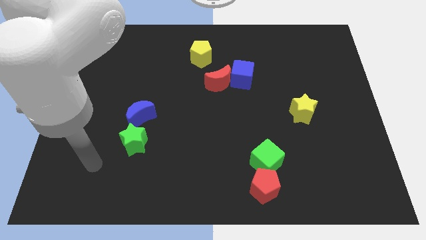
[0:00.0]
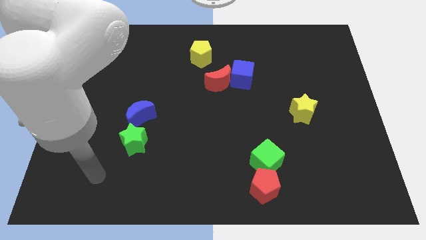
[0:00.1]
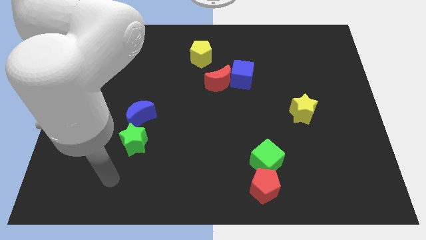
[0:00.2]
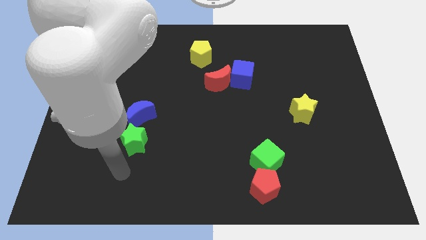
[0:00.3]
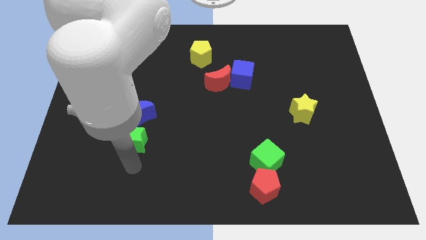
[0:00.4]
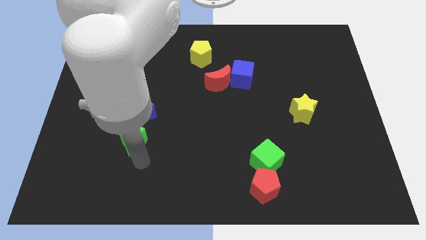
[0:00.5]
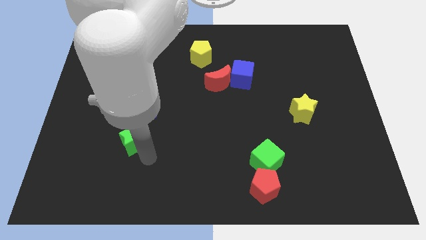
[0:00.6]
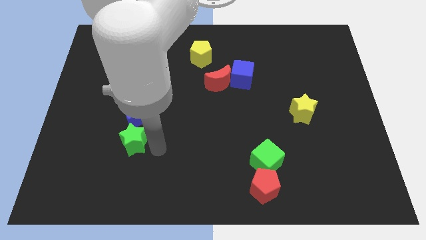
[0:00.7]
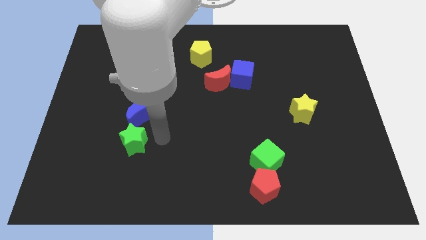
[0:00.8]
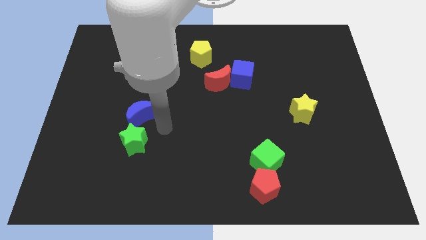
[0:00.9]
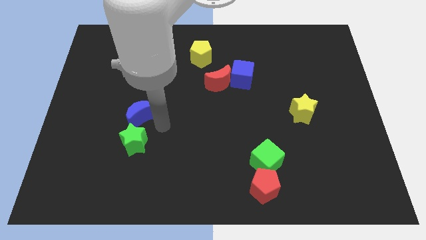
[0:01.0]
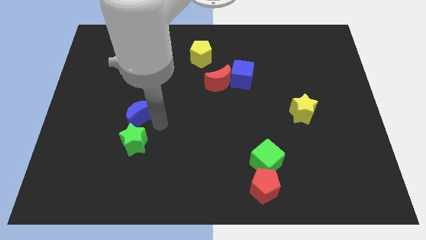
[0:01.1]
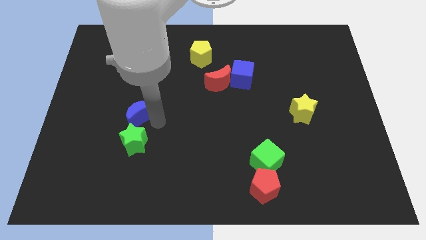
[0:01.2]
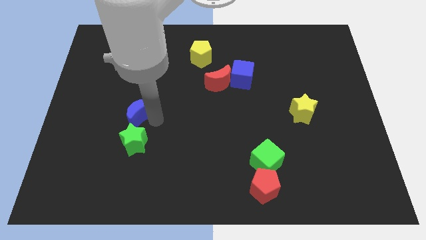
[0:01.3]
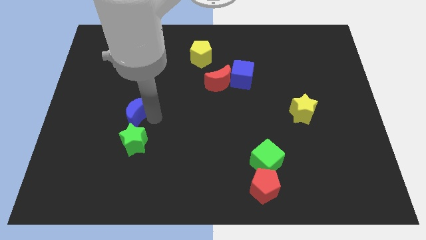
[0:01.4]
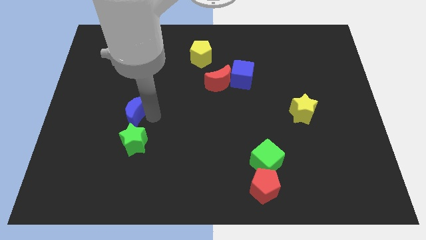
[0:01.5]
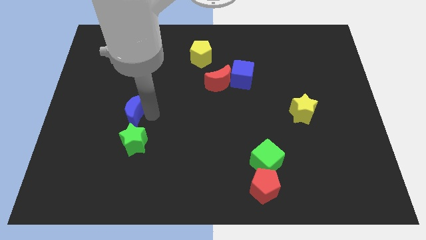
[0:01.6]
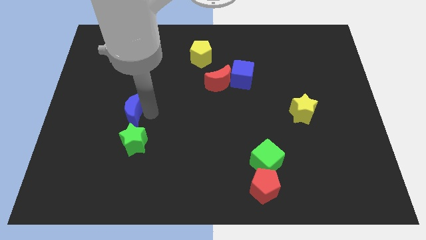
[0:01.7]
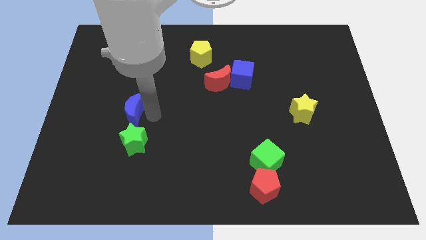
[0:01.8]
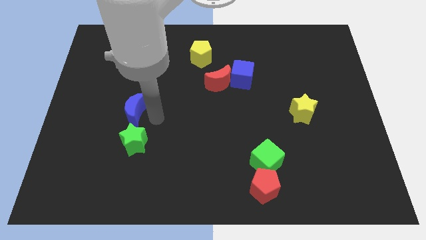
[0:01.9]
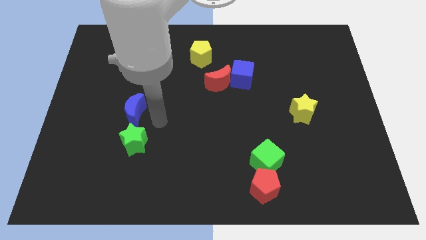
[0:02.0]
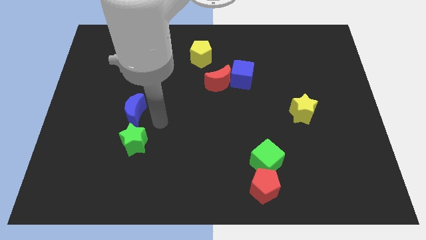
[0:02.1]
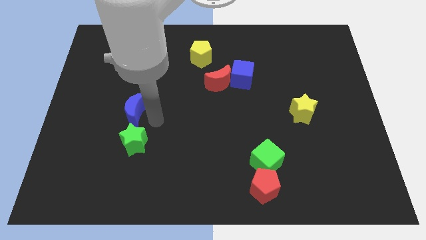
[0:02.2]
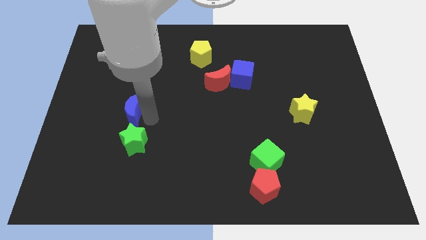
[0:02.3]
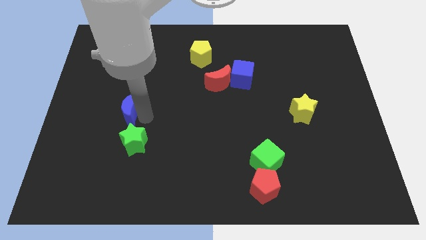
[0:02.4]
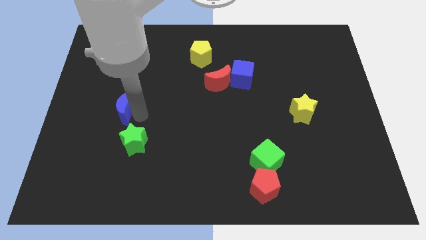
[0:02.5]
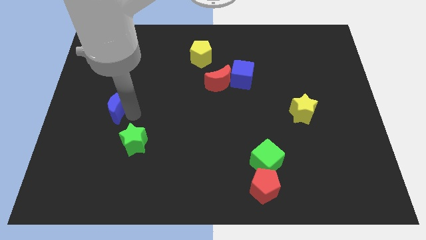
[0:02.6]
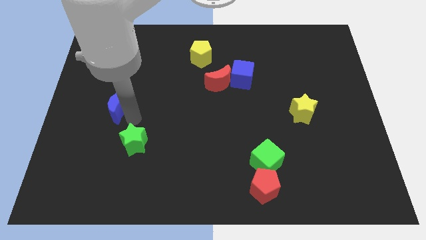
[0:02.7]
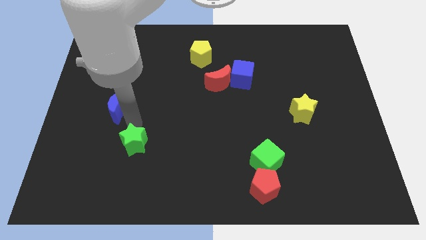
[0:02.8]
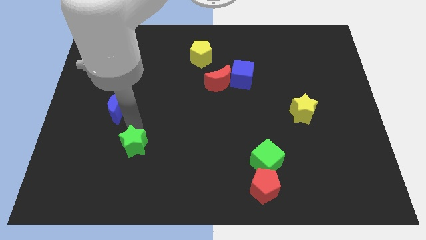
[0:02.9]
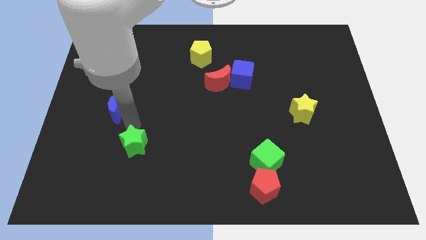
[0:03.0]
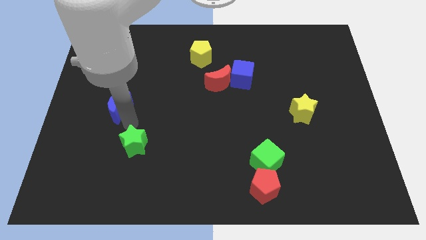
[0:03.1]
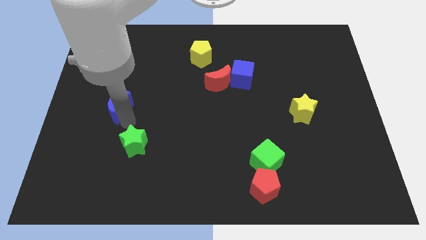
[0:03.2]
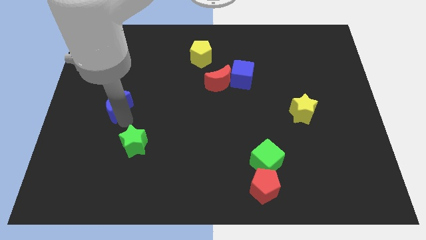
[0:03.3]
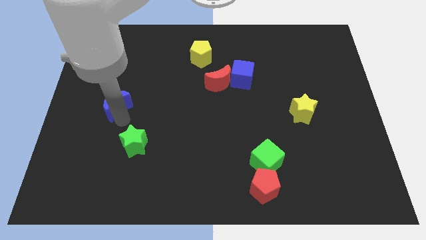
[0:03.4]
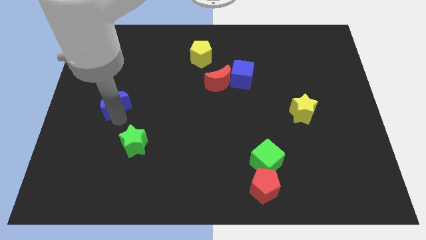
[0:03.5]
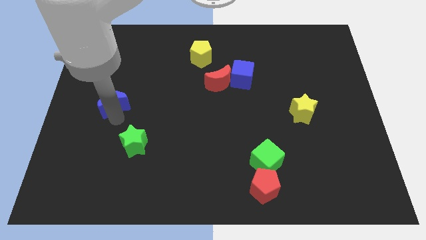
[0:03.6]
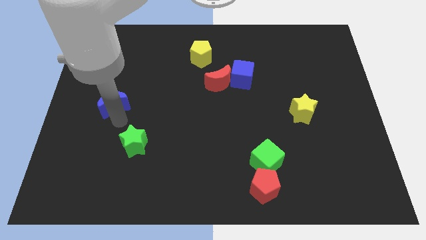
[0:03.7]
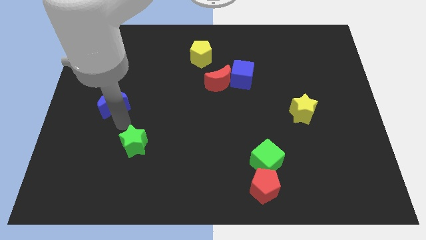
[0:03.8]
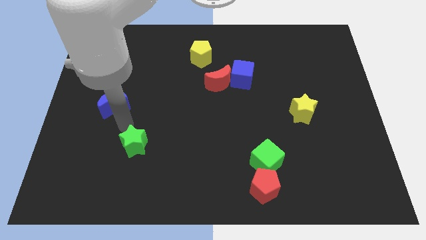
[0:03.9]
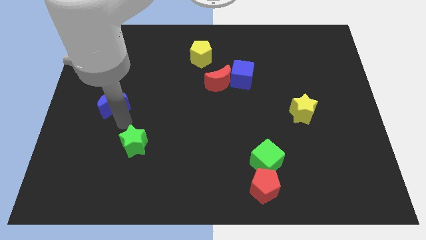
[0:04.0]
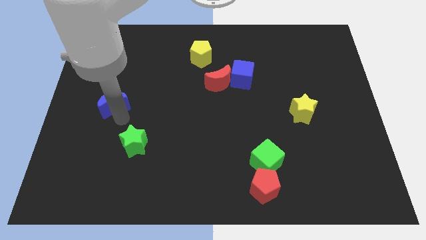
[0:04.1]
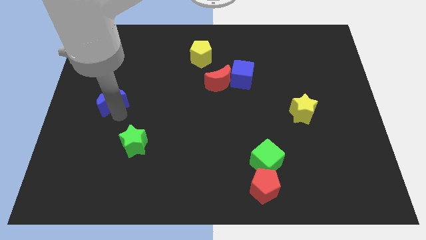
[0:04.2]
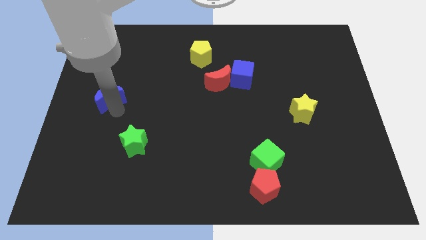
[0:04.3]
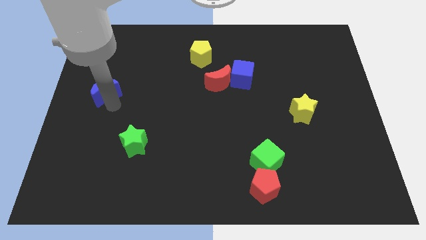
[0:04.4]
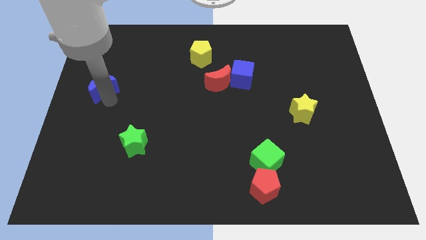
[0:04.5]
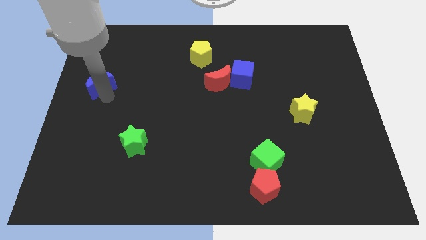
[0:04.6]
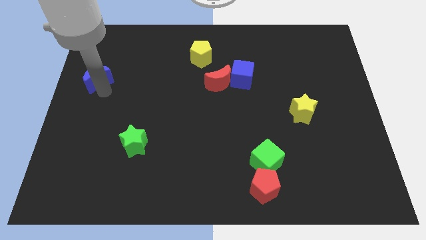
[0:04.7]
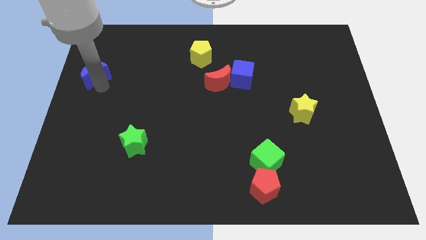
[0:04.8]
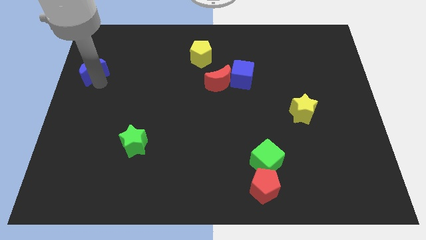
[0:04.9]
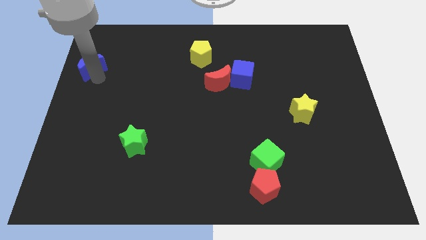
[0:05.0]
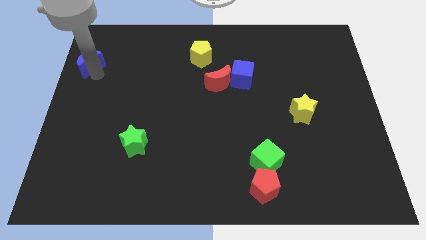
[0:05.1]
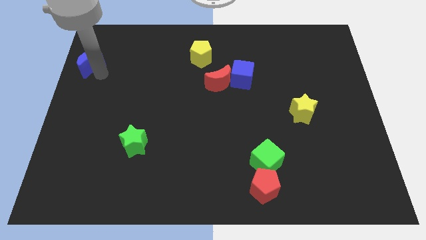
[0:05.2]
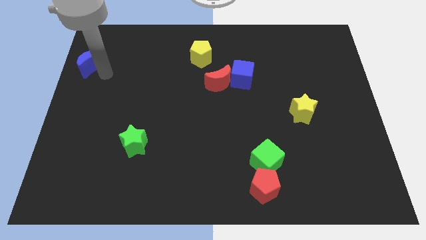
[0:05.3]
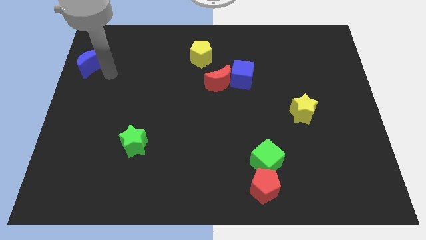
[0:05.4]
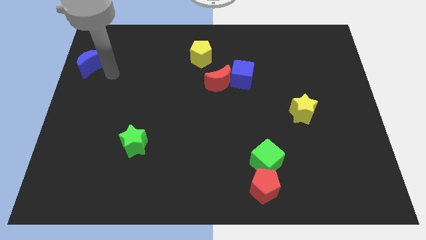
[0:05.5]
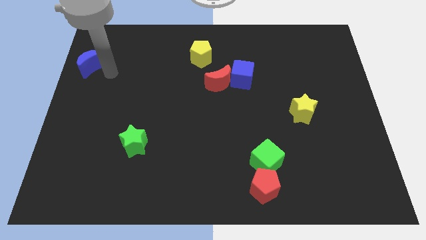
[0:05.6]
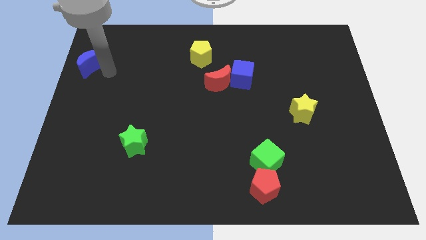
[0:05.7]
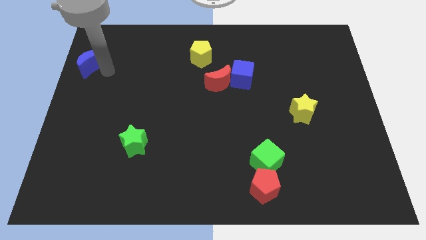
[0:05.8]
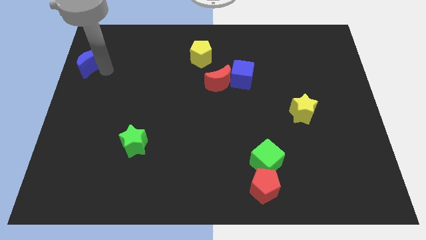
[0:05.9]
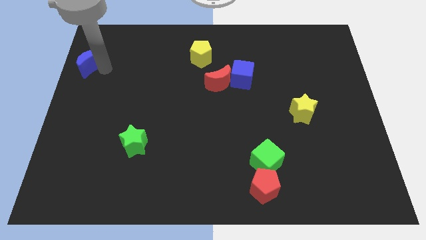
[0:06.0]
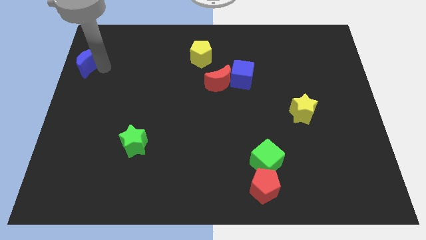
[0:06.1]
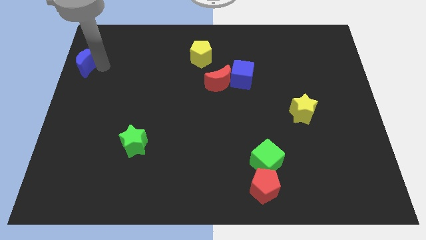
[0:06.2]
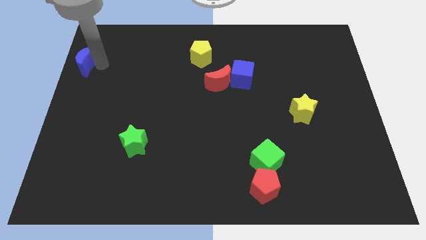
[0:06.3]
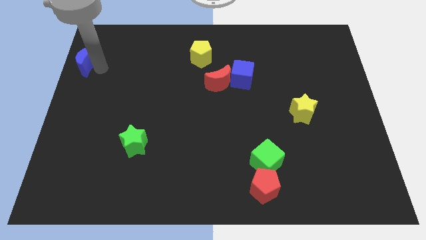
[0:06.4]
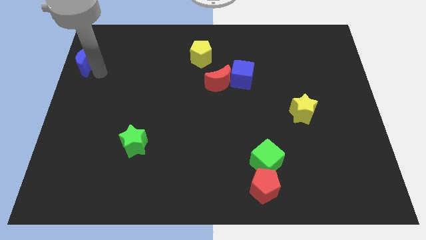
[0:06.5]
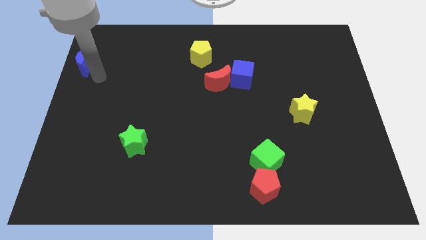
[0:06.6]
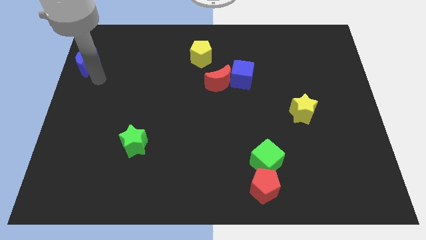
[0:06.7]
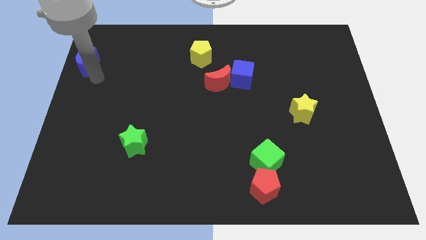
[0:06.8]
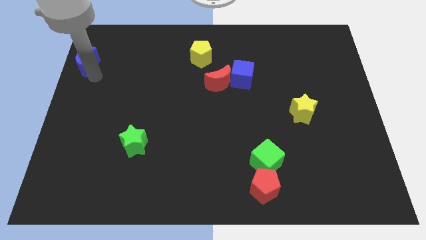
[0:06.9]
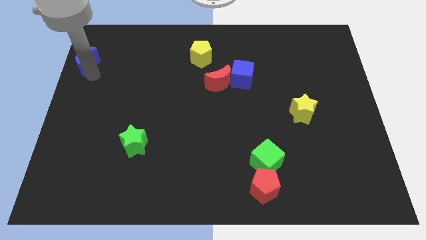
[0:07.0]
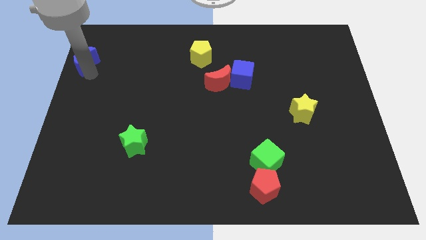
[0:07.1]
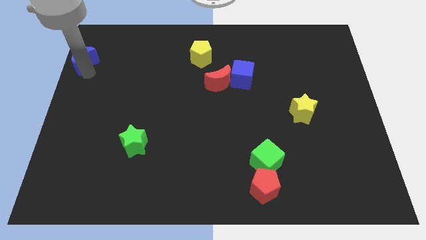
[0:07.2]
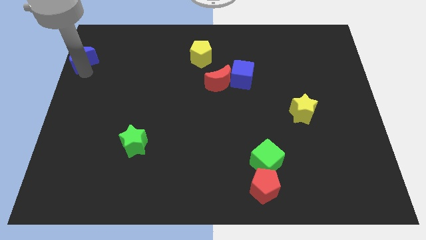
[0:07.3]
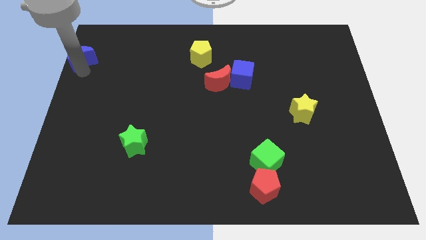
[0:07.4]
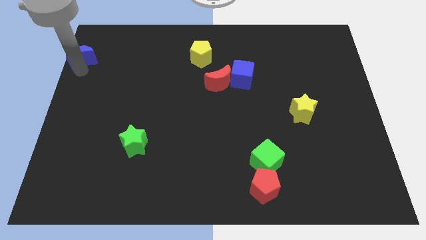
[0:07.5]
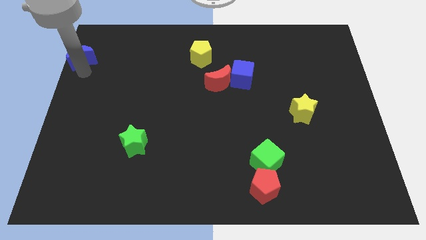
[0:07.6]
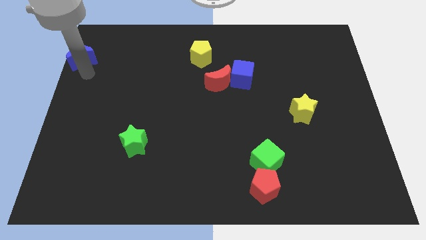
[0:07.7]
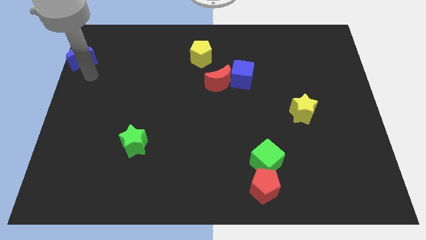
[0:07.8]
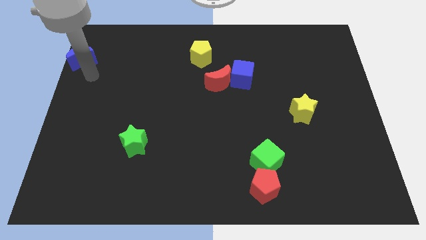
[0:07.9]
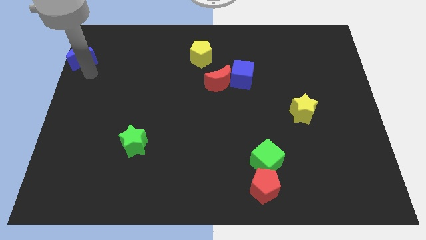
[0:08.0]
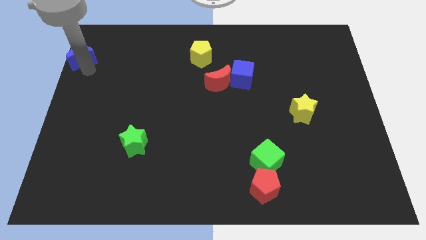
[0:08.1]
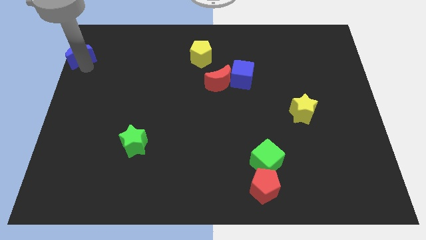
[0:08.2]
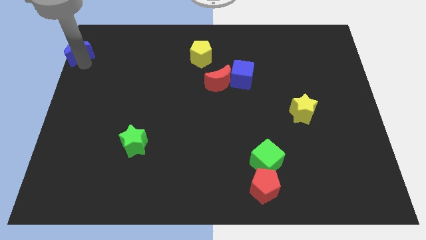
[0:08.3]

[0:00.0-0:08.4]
slide the blue moon to the top left
